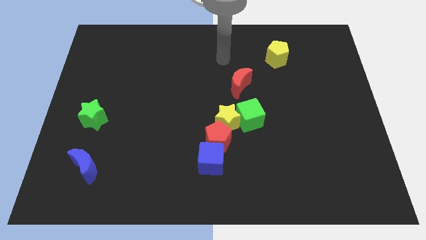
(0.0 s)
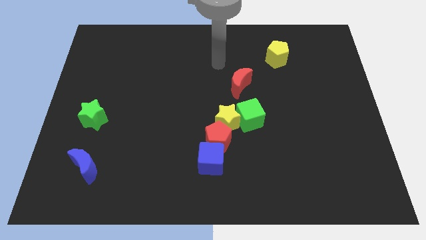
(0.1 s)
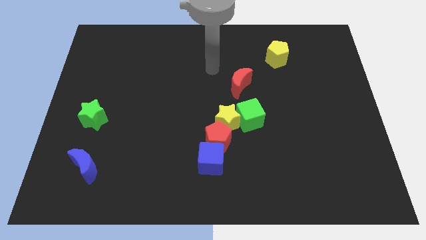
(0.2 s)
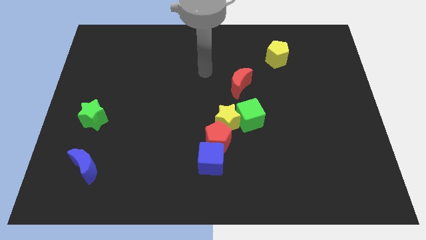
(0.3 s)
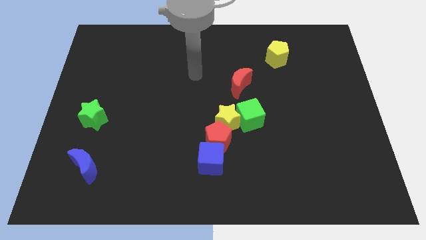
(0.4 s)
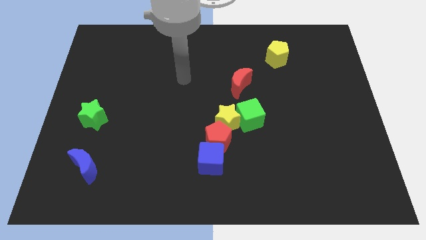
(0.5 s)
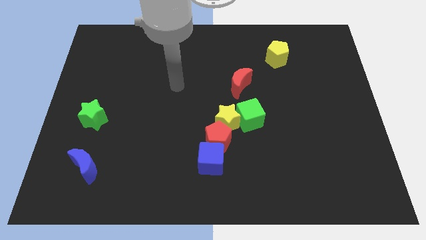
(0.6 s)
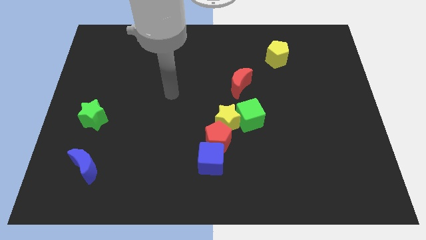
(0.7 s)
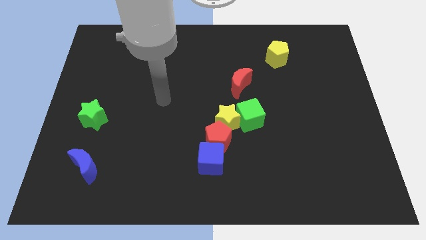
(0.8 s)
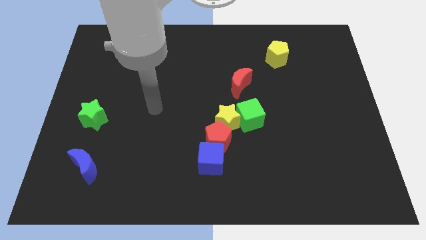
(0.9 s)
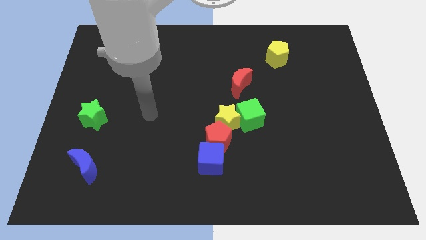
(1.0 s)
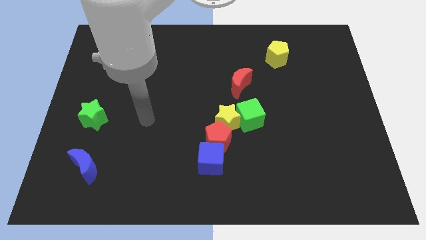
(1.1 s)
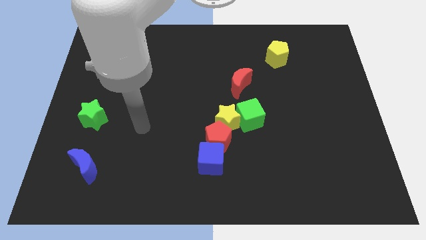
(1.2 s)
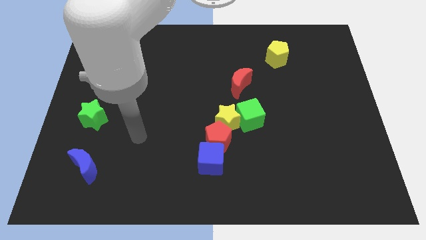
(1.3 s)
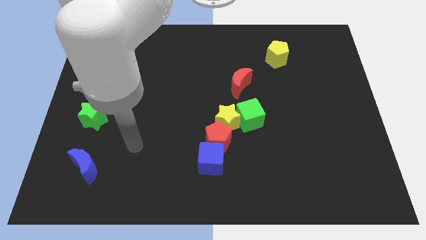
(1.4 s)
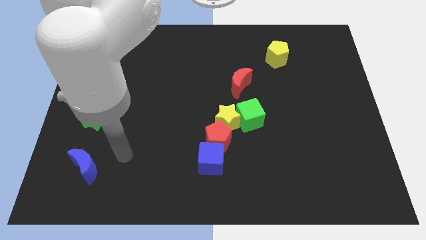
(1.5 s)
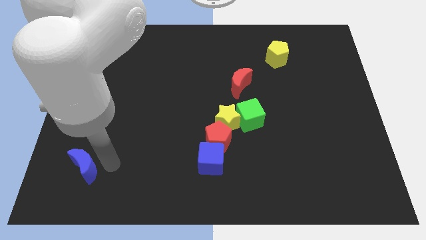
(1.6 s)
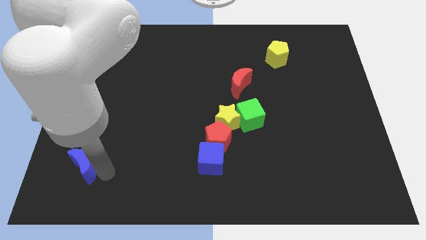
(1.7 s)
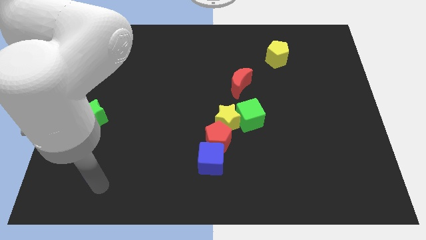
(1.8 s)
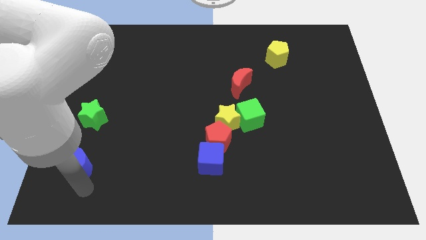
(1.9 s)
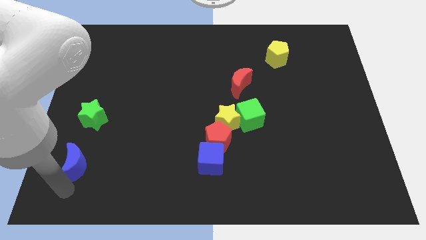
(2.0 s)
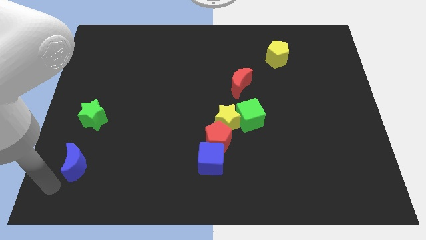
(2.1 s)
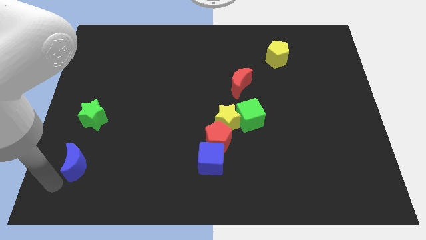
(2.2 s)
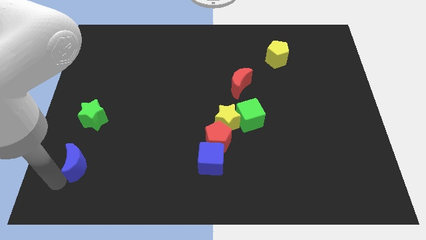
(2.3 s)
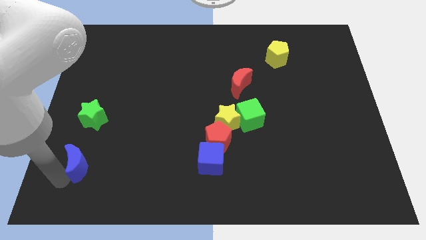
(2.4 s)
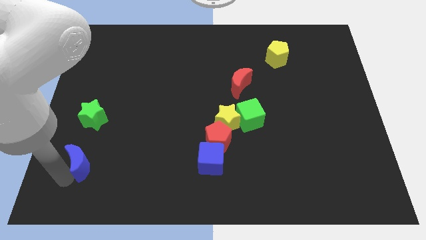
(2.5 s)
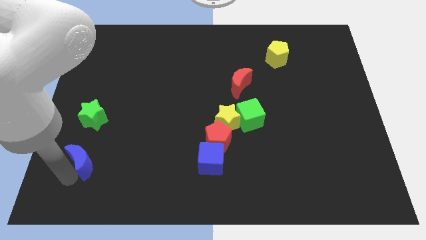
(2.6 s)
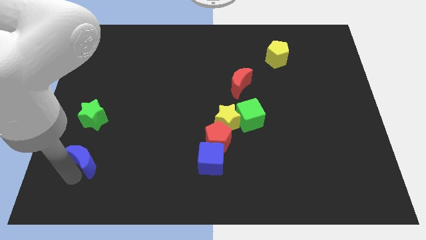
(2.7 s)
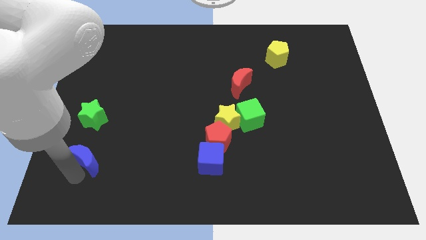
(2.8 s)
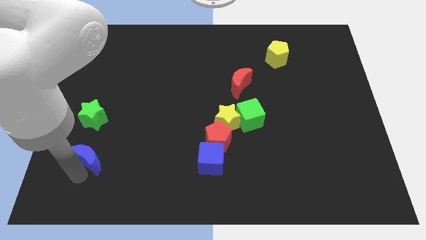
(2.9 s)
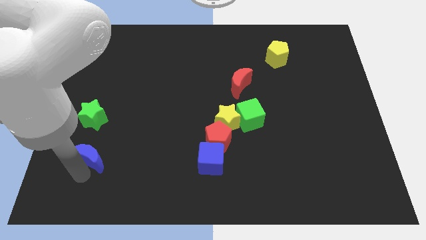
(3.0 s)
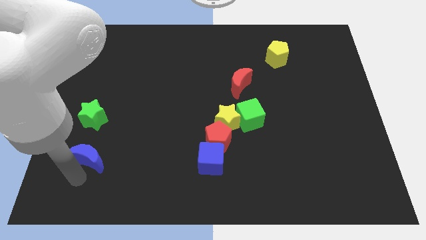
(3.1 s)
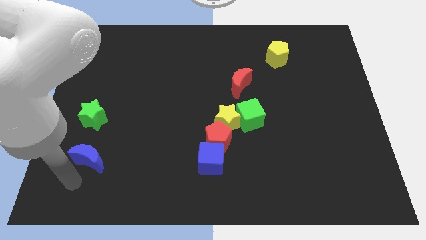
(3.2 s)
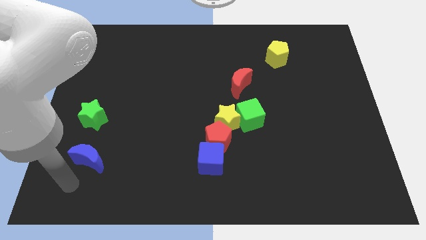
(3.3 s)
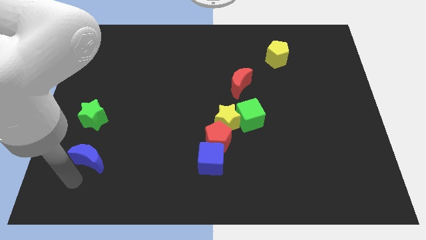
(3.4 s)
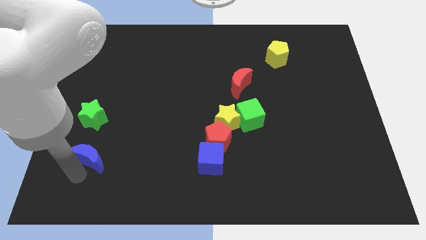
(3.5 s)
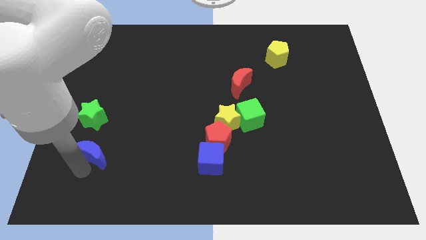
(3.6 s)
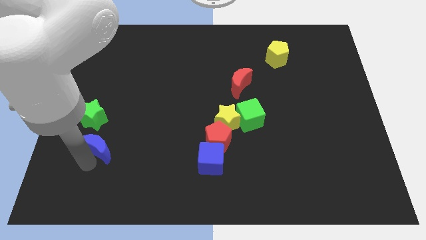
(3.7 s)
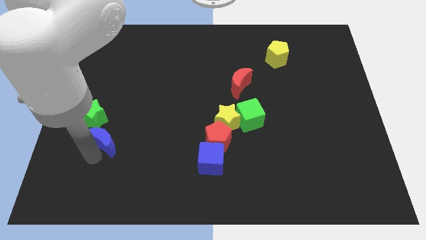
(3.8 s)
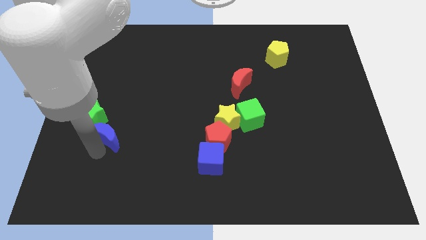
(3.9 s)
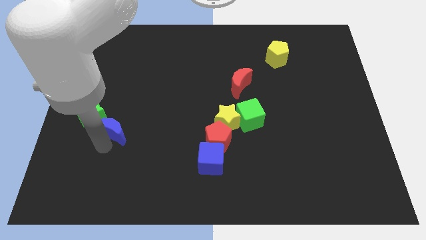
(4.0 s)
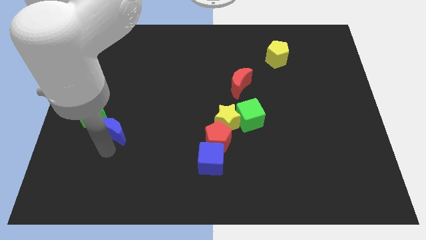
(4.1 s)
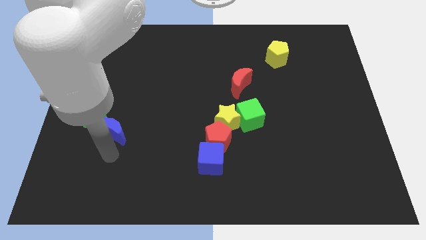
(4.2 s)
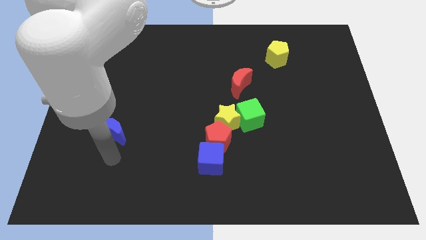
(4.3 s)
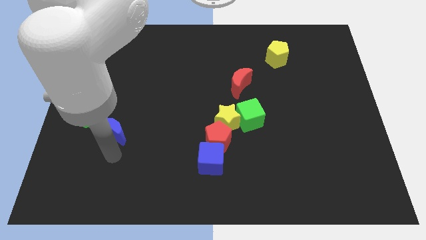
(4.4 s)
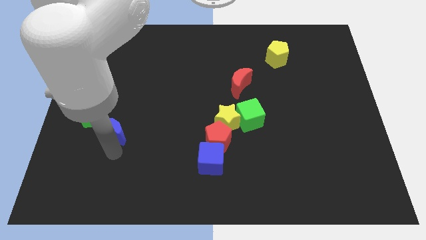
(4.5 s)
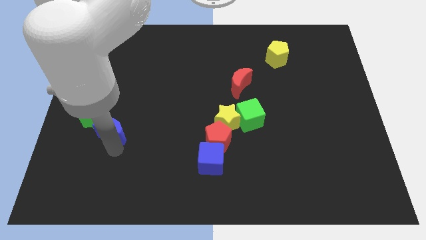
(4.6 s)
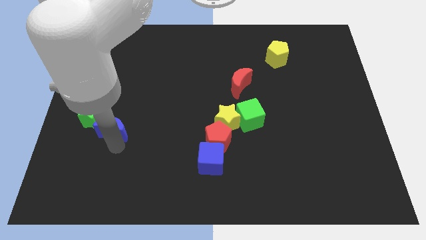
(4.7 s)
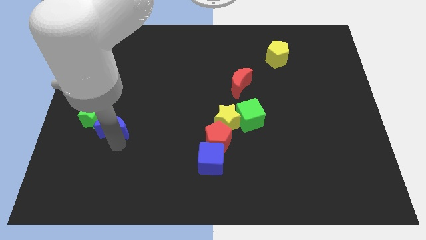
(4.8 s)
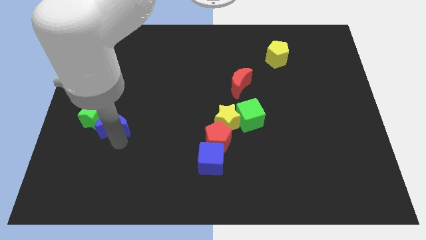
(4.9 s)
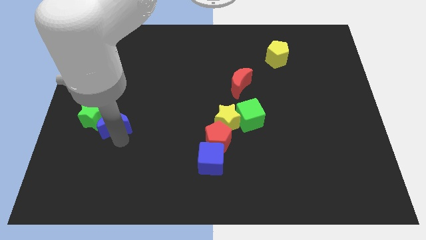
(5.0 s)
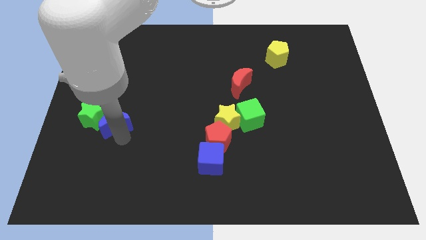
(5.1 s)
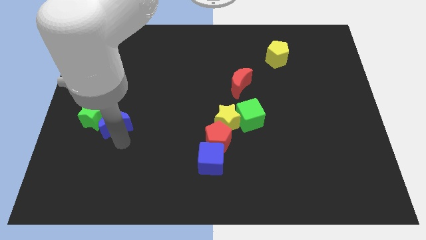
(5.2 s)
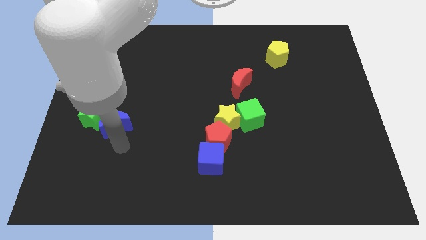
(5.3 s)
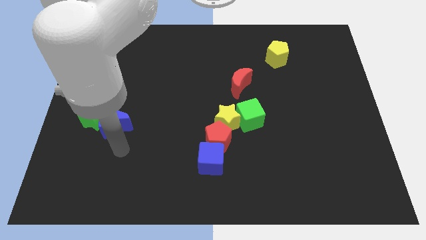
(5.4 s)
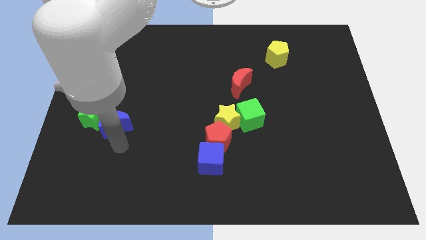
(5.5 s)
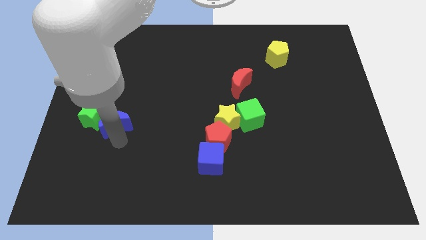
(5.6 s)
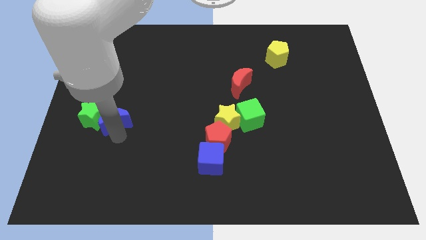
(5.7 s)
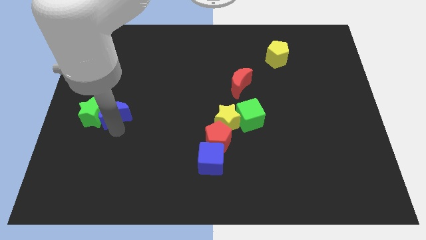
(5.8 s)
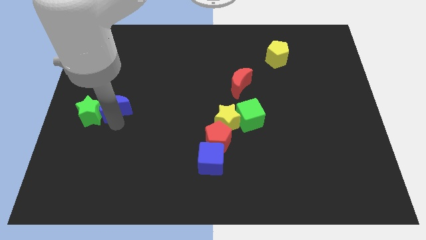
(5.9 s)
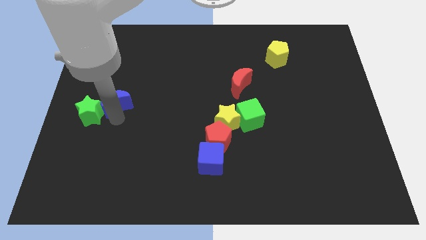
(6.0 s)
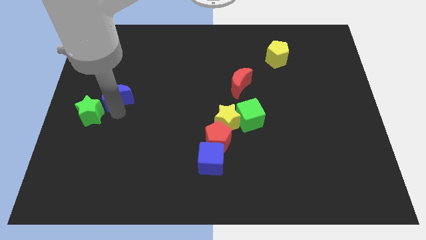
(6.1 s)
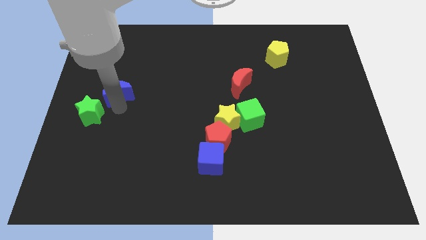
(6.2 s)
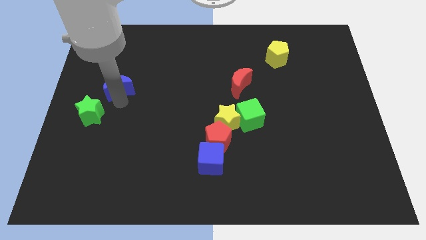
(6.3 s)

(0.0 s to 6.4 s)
push the blue moon upwards

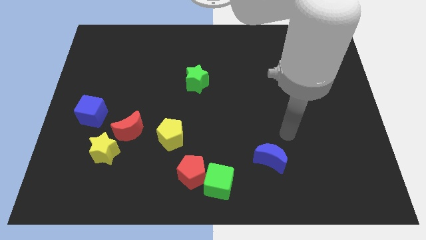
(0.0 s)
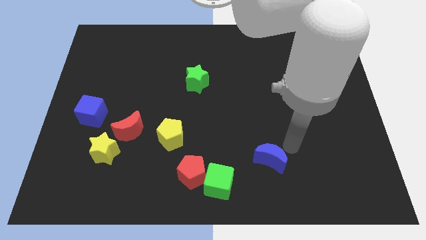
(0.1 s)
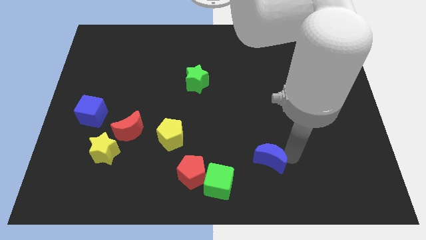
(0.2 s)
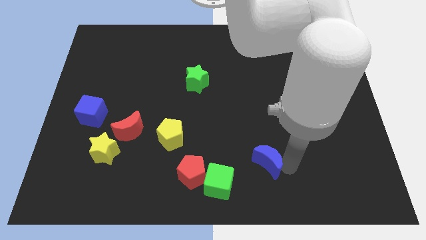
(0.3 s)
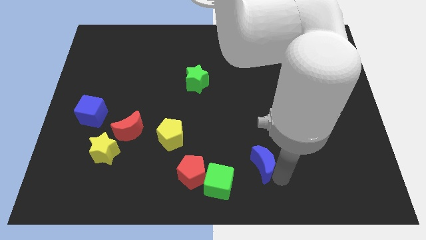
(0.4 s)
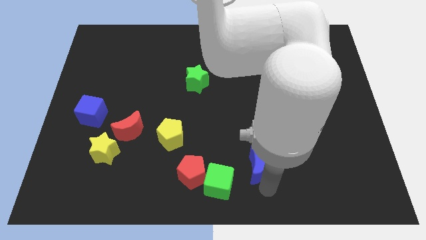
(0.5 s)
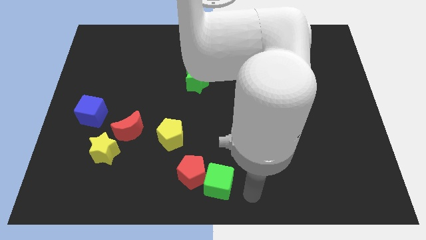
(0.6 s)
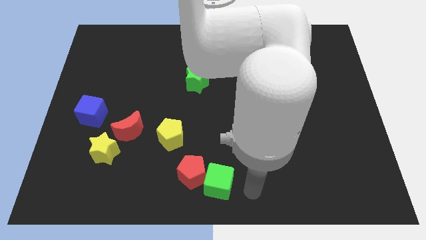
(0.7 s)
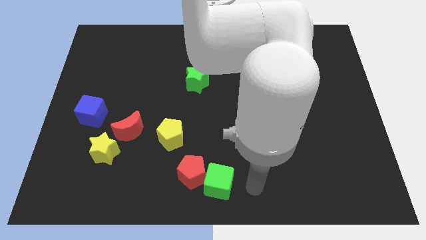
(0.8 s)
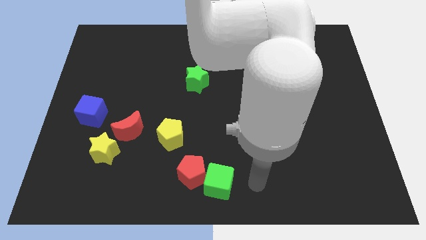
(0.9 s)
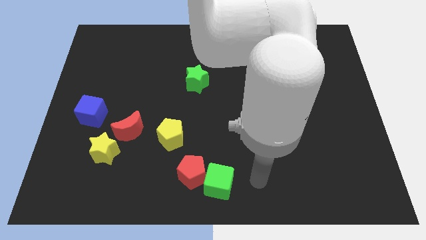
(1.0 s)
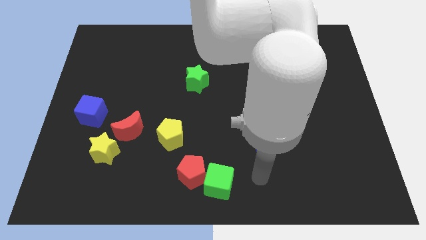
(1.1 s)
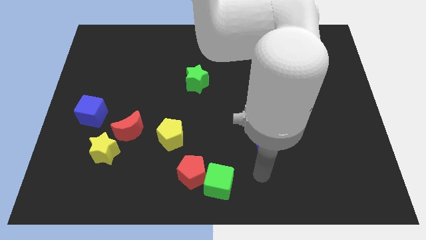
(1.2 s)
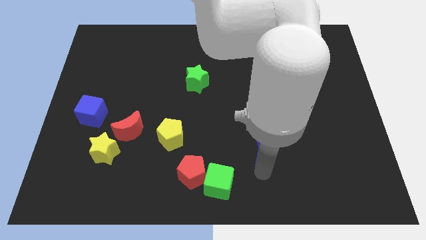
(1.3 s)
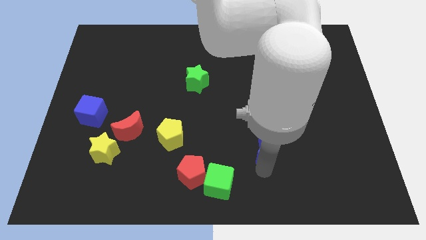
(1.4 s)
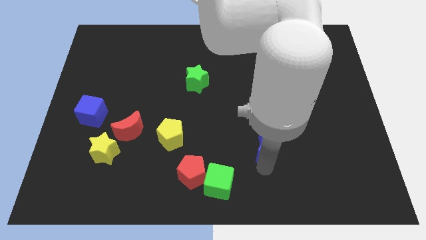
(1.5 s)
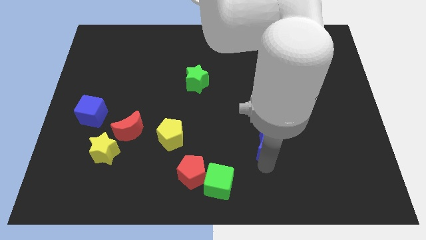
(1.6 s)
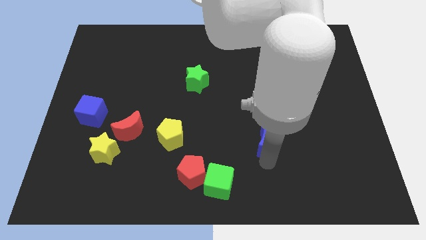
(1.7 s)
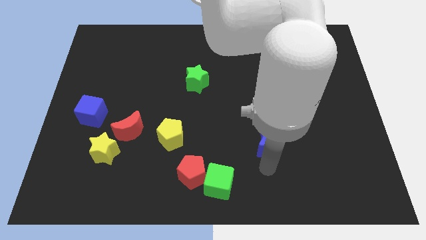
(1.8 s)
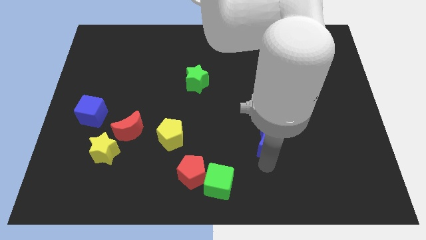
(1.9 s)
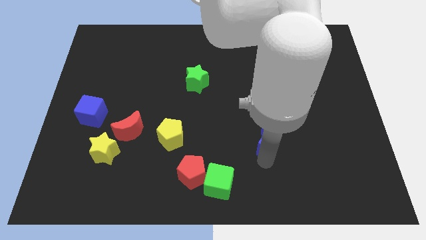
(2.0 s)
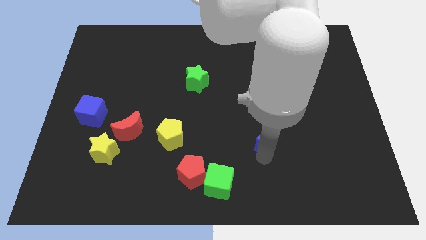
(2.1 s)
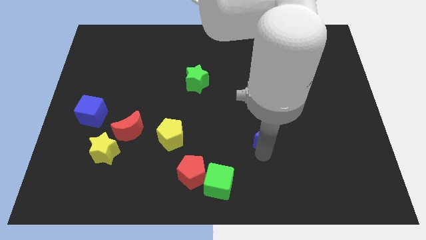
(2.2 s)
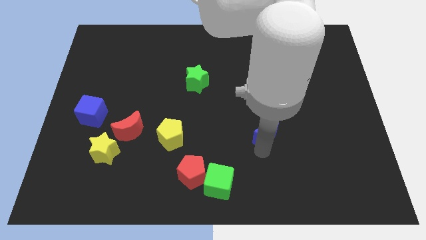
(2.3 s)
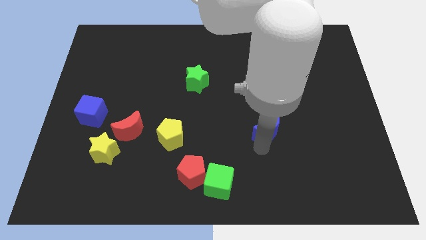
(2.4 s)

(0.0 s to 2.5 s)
push the blue moon upwards a little
